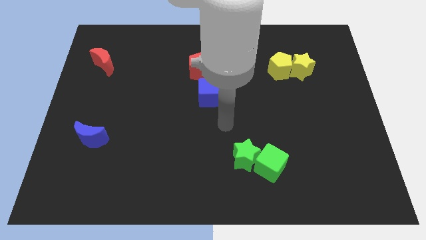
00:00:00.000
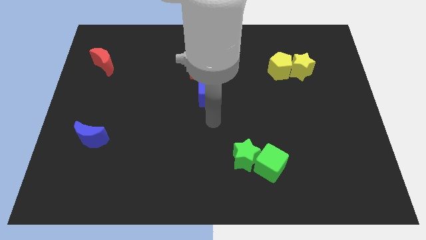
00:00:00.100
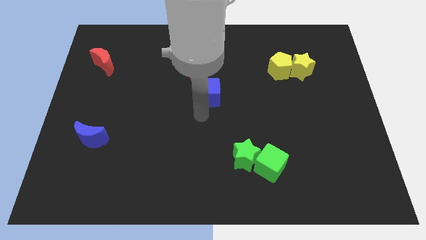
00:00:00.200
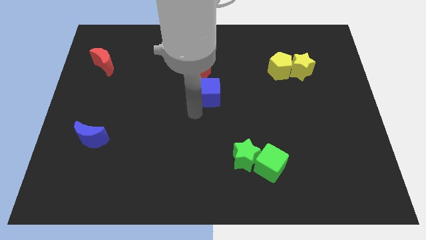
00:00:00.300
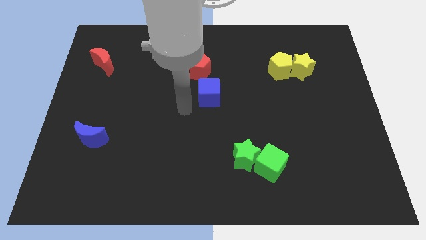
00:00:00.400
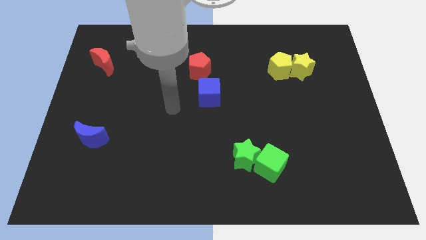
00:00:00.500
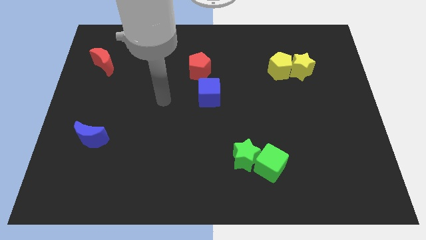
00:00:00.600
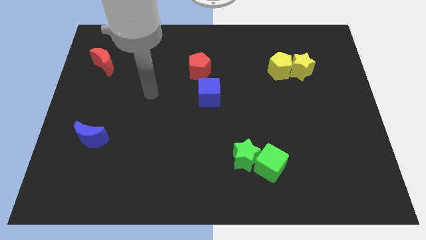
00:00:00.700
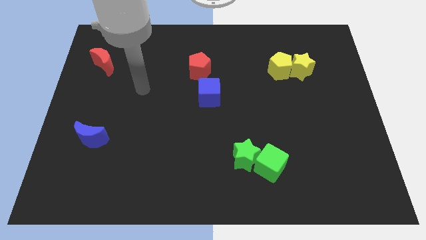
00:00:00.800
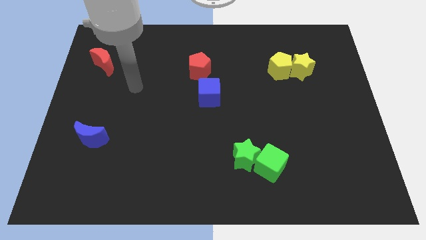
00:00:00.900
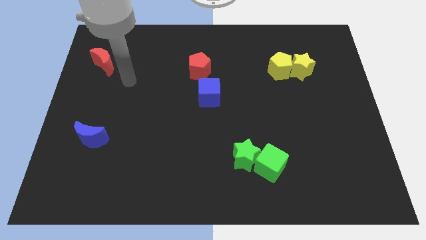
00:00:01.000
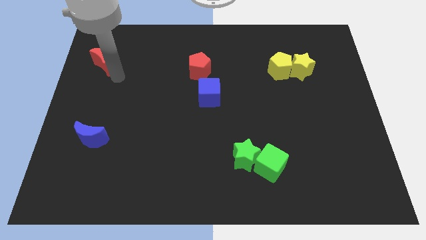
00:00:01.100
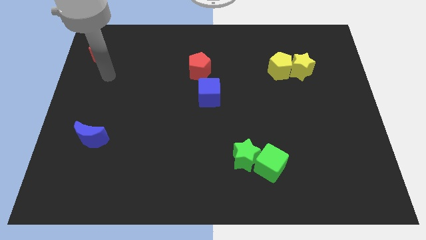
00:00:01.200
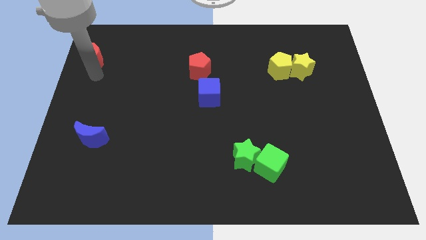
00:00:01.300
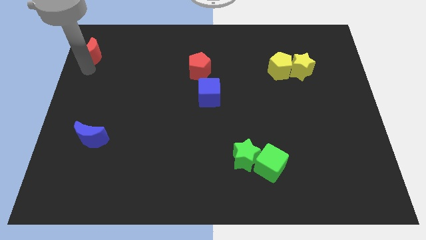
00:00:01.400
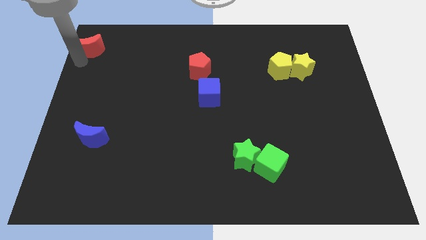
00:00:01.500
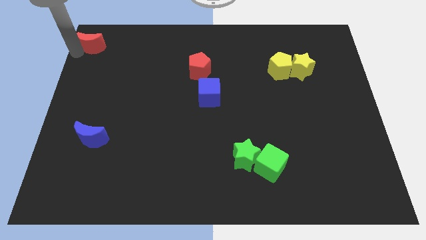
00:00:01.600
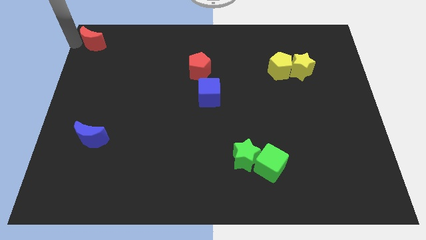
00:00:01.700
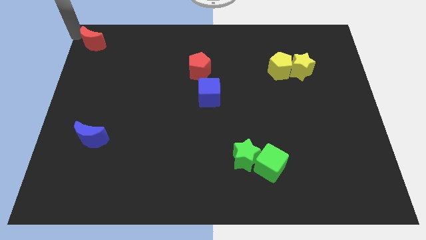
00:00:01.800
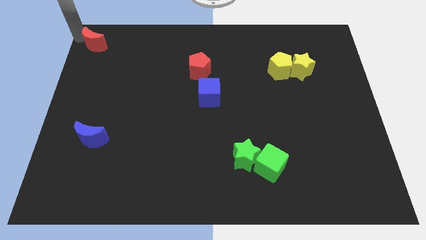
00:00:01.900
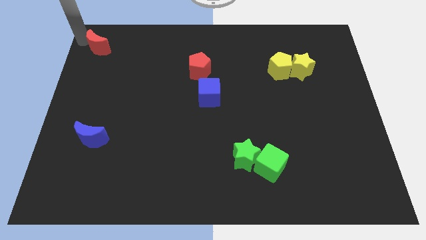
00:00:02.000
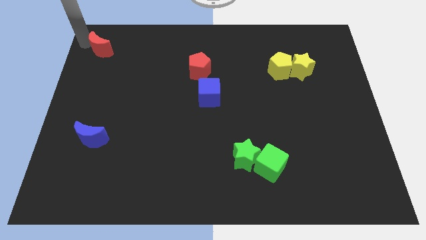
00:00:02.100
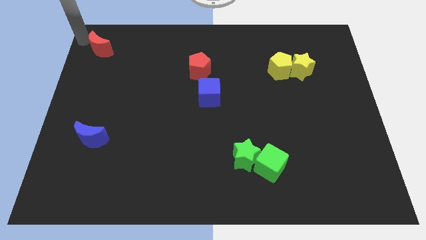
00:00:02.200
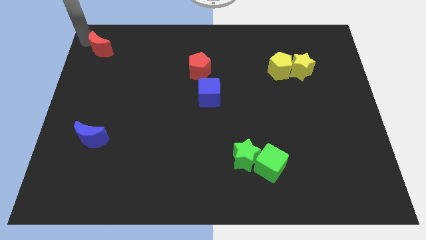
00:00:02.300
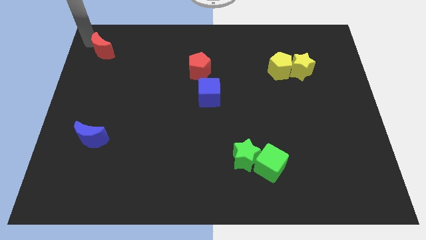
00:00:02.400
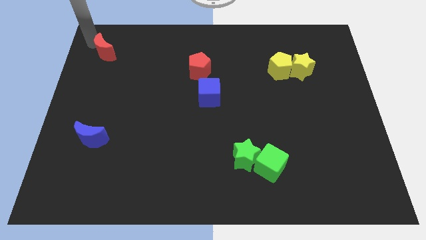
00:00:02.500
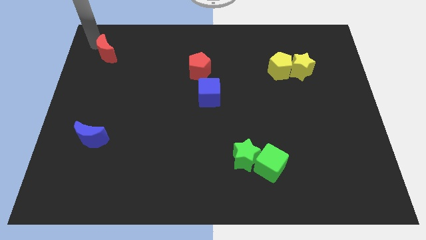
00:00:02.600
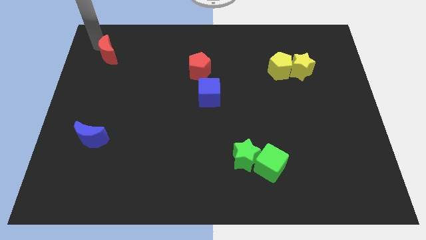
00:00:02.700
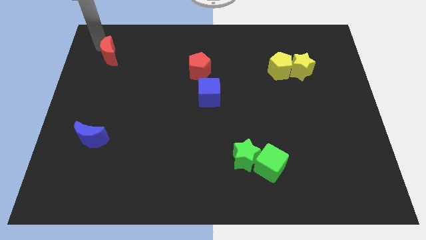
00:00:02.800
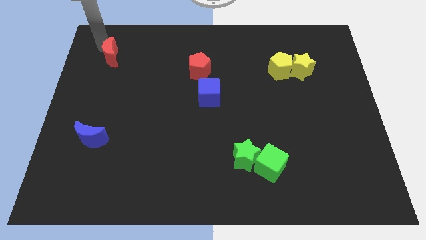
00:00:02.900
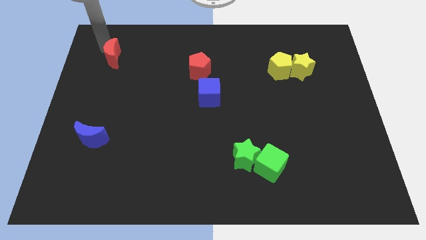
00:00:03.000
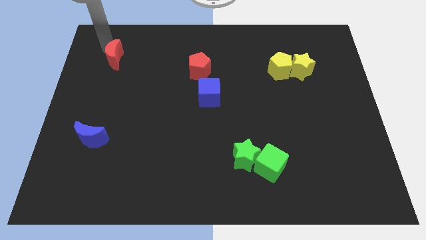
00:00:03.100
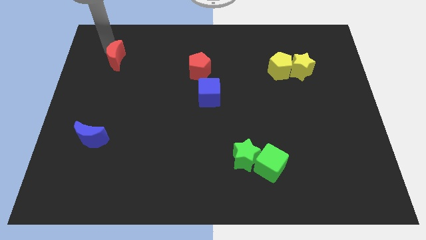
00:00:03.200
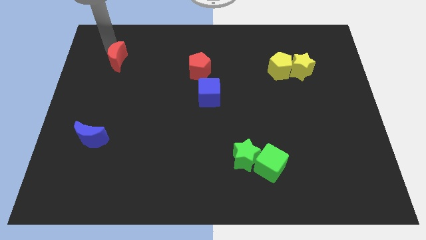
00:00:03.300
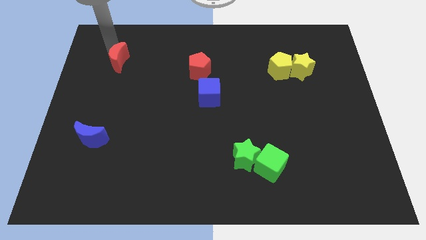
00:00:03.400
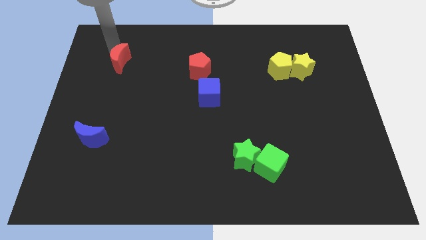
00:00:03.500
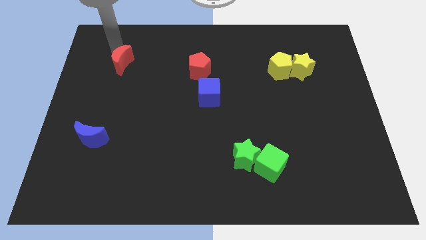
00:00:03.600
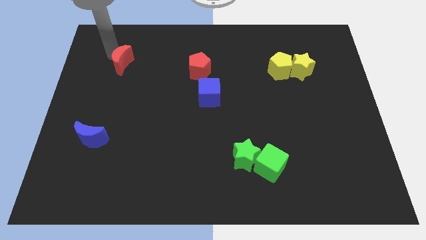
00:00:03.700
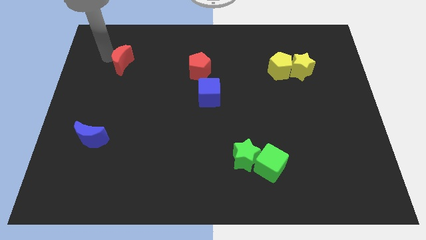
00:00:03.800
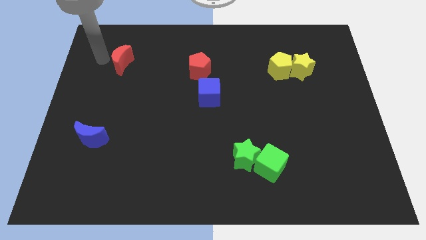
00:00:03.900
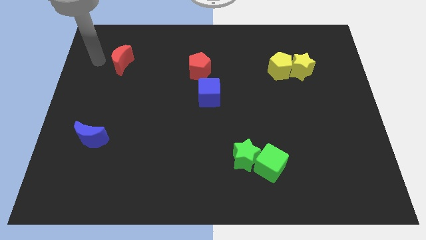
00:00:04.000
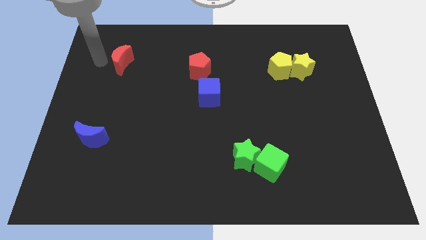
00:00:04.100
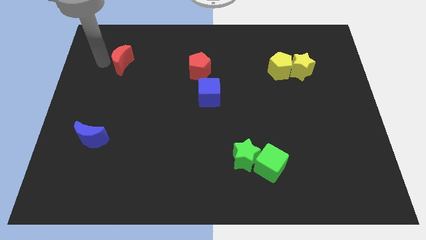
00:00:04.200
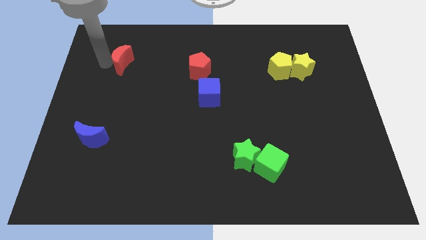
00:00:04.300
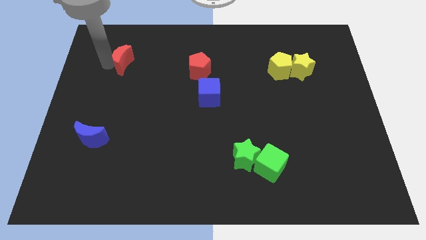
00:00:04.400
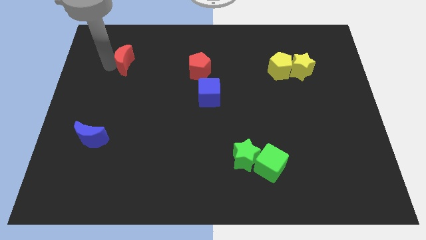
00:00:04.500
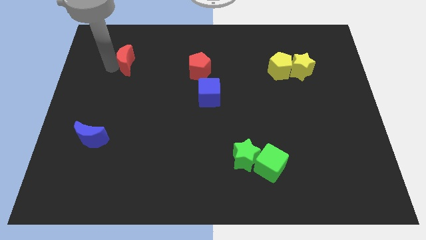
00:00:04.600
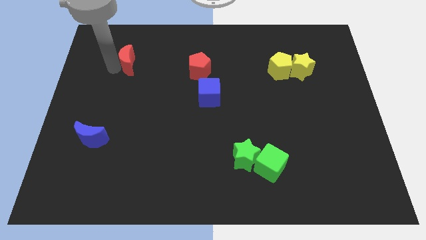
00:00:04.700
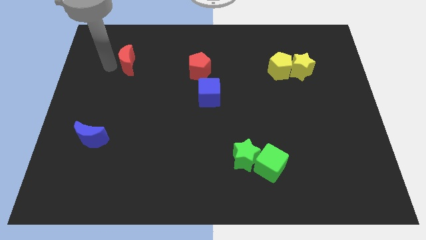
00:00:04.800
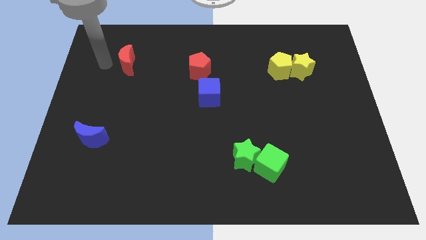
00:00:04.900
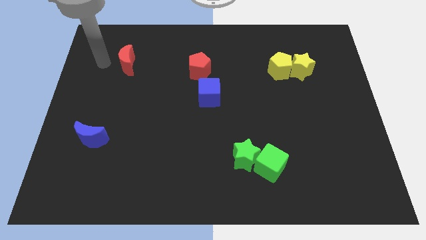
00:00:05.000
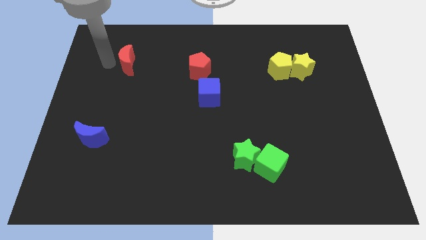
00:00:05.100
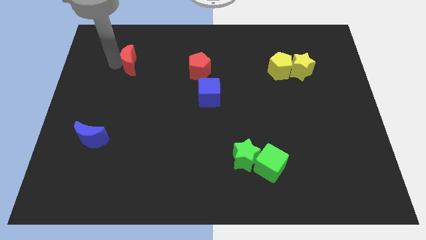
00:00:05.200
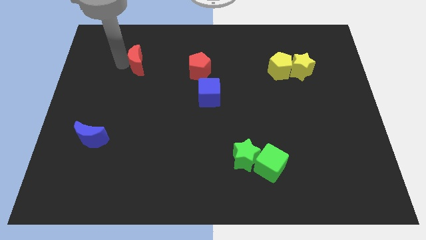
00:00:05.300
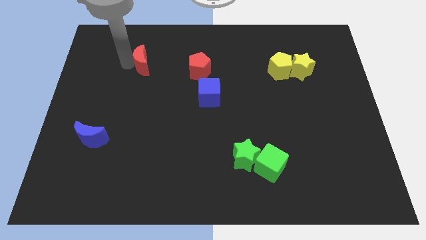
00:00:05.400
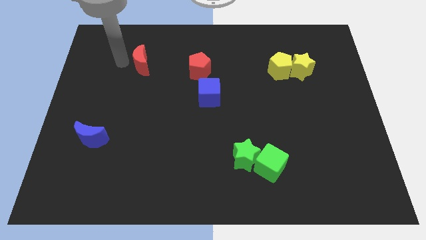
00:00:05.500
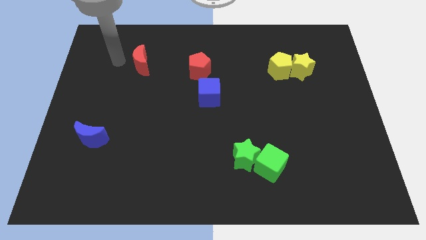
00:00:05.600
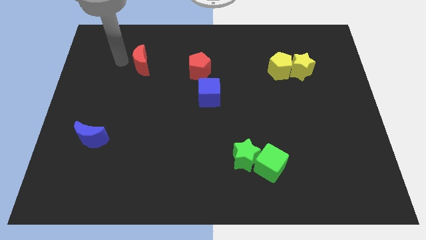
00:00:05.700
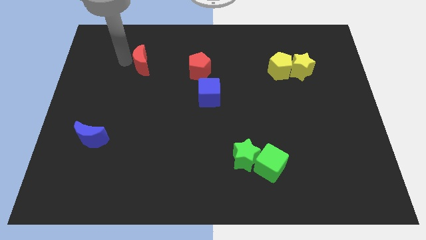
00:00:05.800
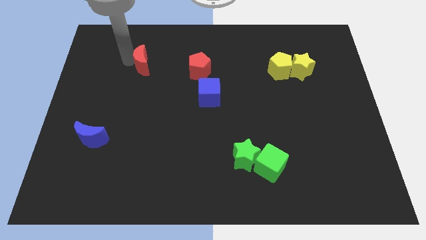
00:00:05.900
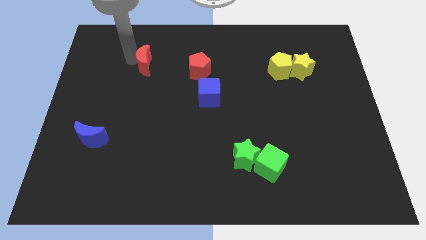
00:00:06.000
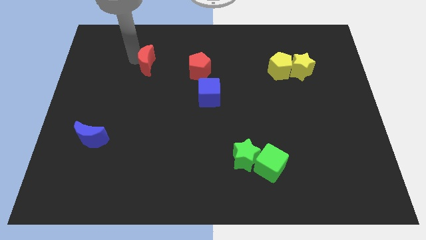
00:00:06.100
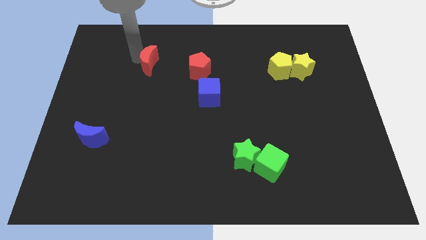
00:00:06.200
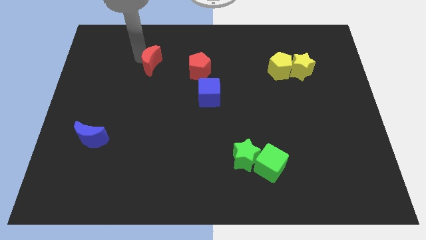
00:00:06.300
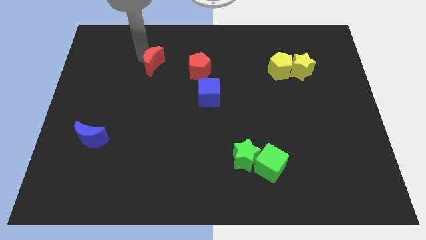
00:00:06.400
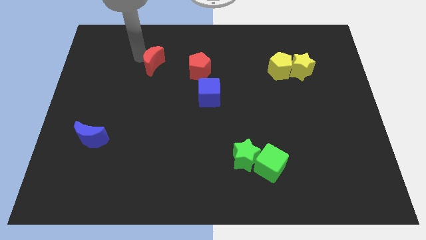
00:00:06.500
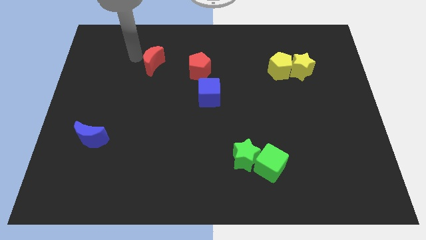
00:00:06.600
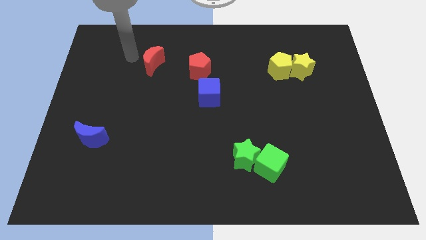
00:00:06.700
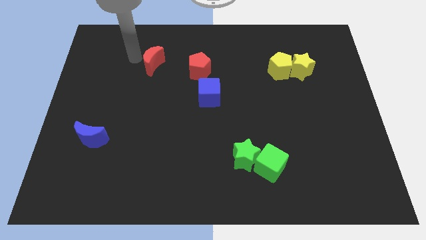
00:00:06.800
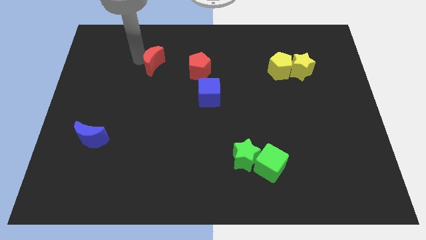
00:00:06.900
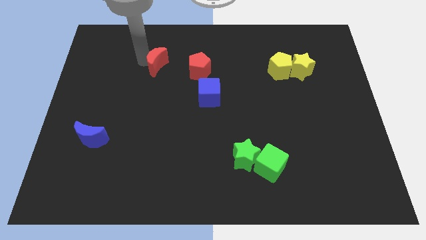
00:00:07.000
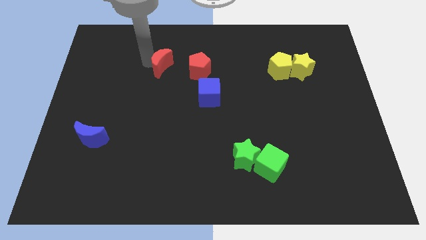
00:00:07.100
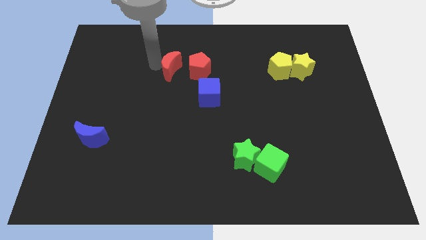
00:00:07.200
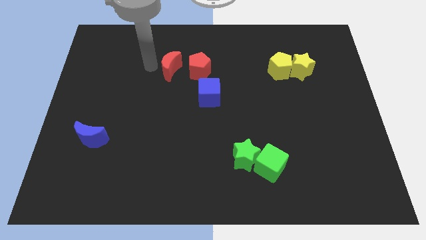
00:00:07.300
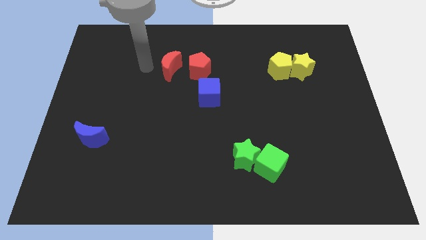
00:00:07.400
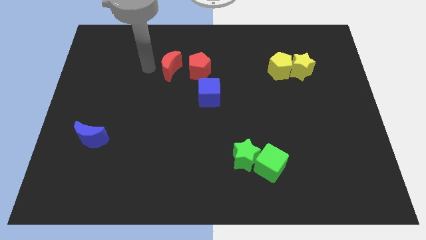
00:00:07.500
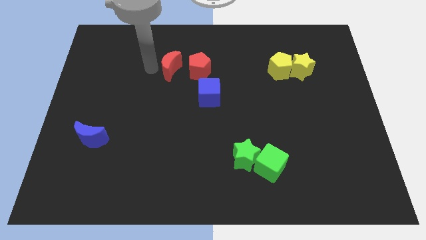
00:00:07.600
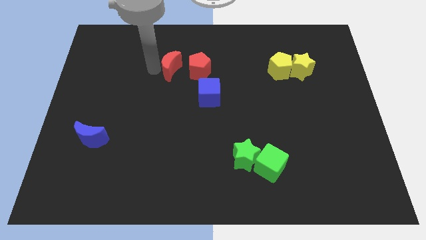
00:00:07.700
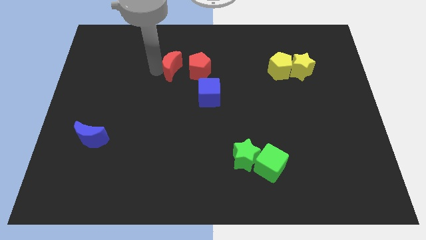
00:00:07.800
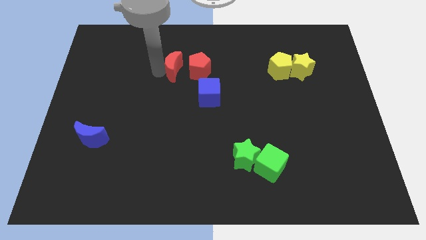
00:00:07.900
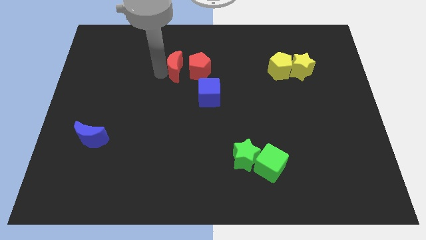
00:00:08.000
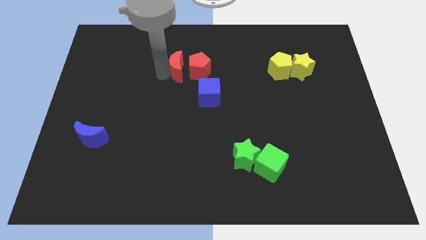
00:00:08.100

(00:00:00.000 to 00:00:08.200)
push the red moon to the red pentagon
